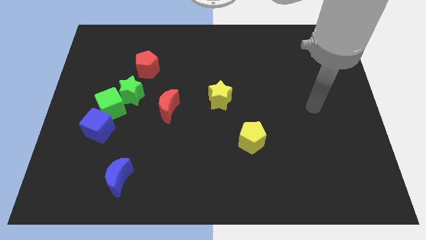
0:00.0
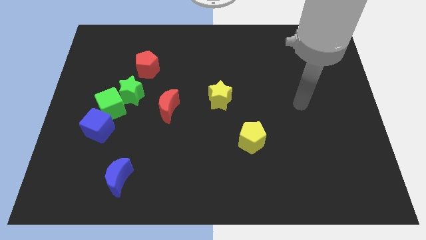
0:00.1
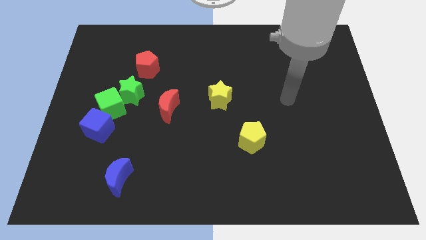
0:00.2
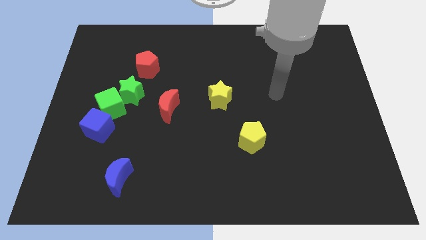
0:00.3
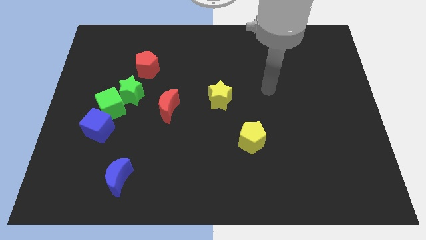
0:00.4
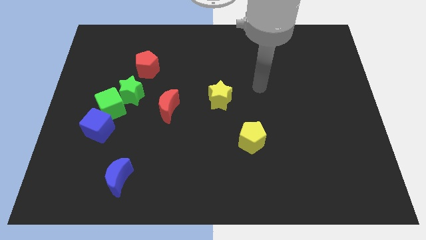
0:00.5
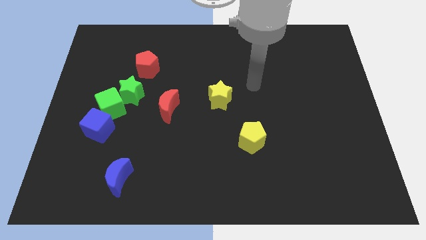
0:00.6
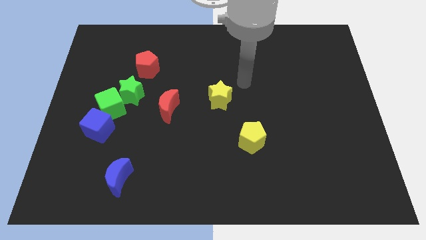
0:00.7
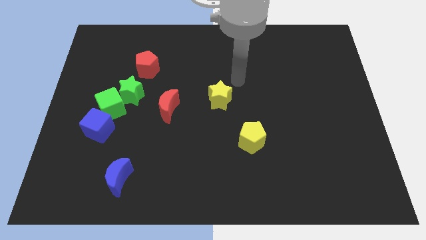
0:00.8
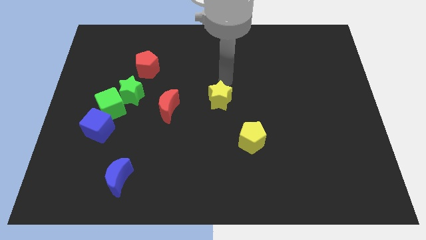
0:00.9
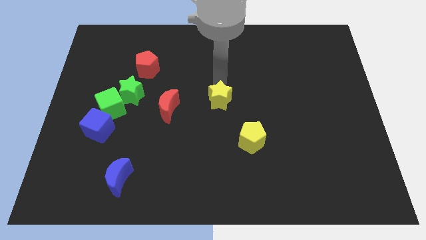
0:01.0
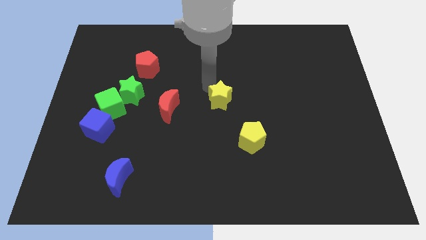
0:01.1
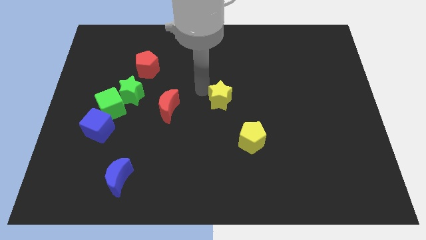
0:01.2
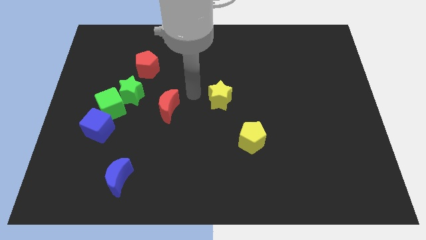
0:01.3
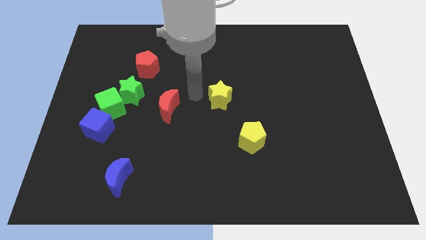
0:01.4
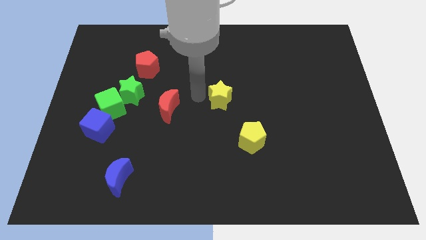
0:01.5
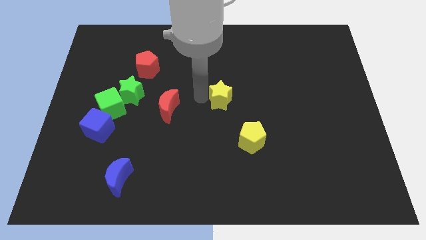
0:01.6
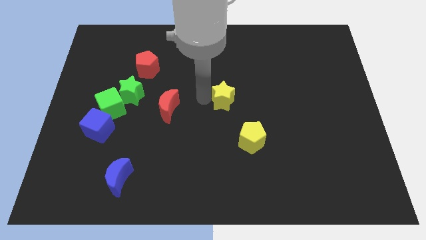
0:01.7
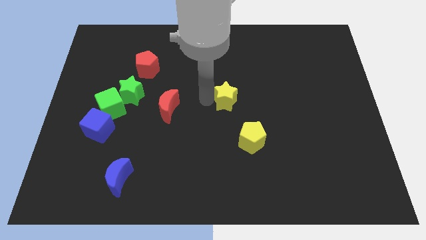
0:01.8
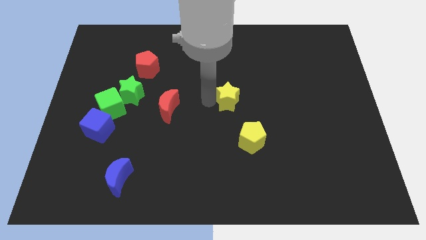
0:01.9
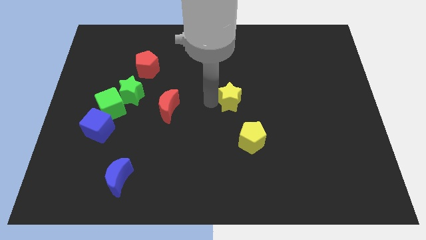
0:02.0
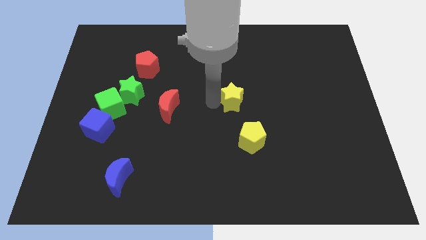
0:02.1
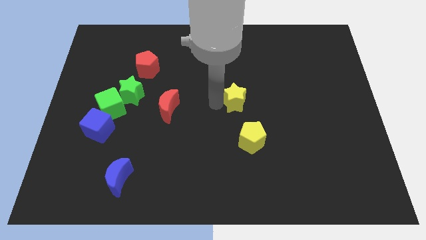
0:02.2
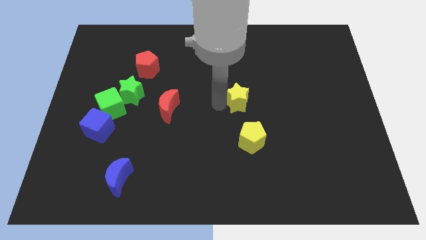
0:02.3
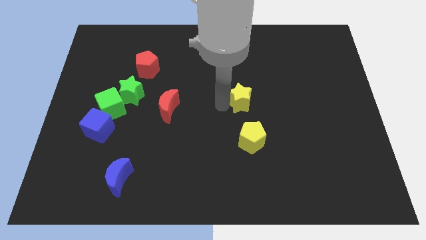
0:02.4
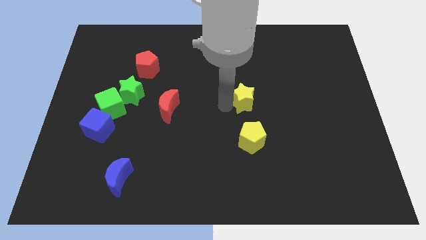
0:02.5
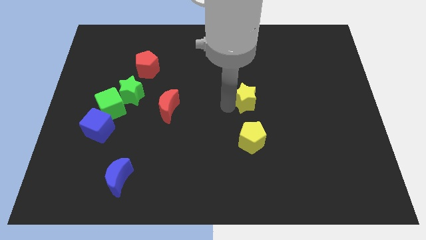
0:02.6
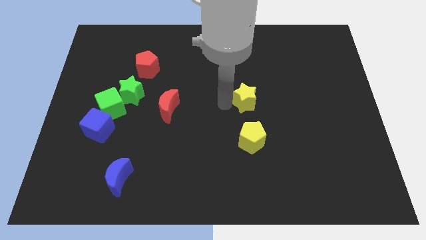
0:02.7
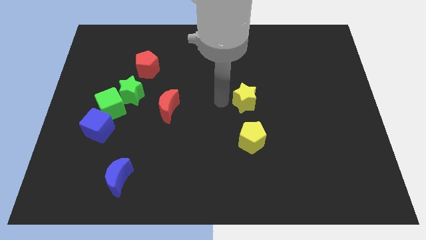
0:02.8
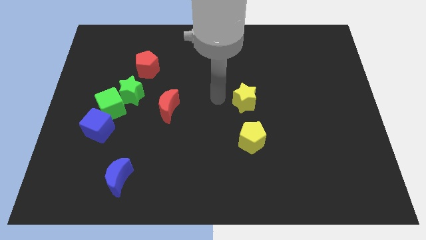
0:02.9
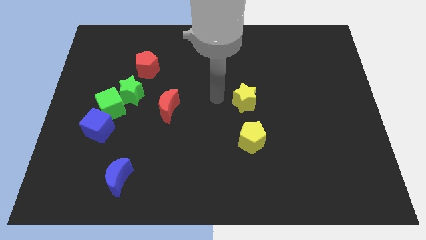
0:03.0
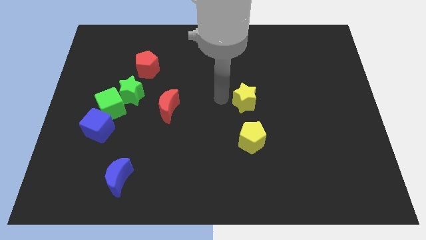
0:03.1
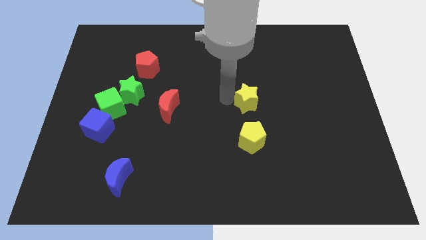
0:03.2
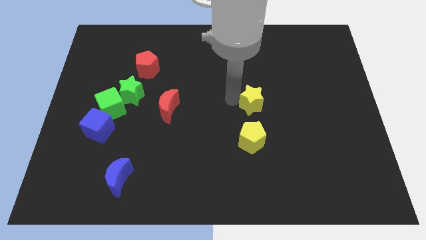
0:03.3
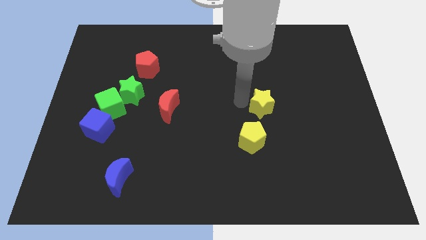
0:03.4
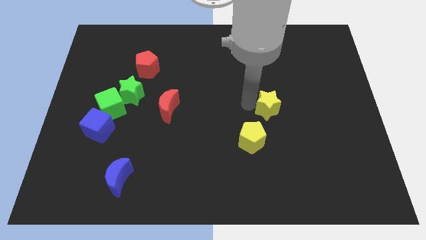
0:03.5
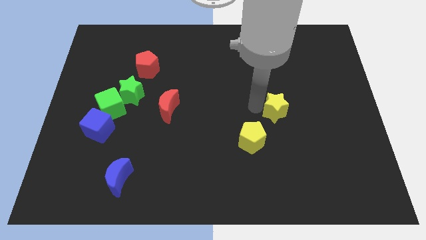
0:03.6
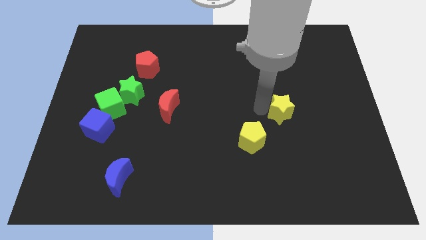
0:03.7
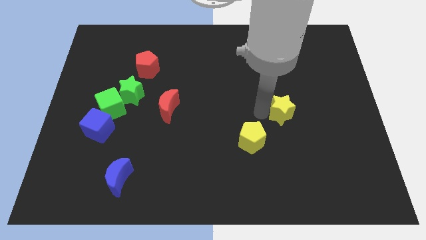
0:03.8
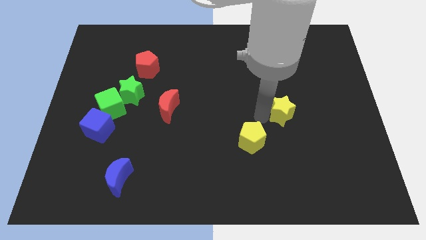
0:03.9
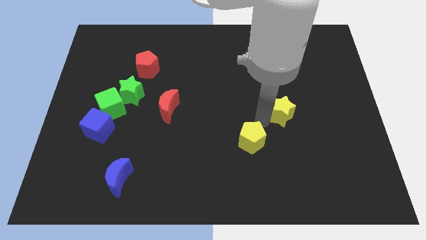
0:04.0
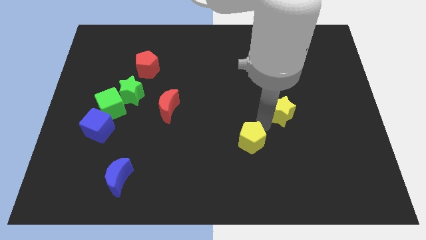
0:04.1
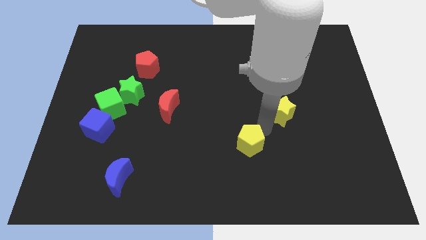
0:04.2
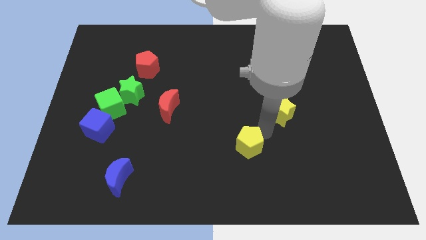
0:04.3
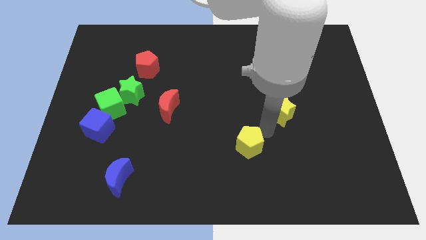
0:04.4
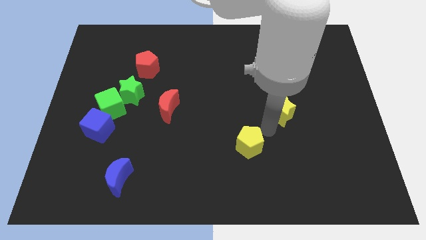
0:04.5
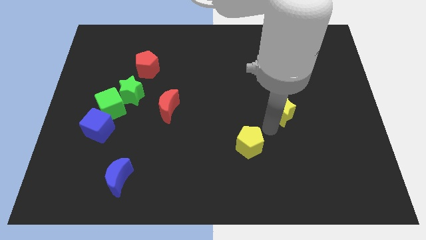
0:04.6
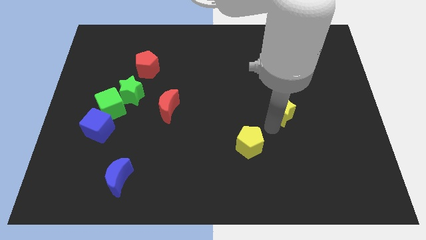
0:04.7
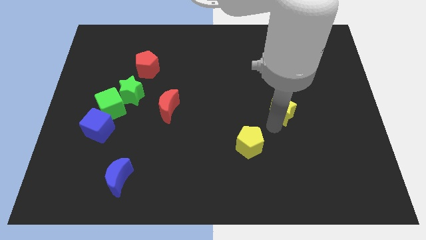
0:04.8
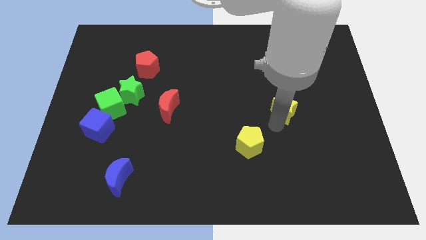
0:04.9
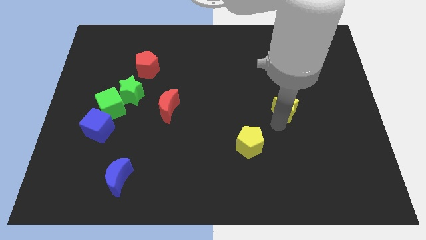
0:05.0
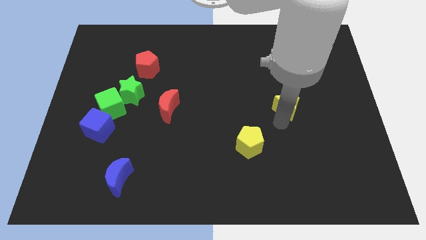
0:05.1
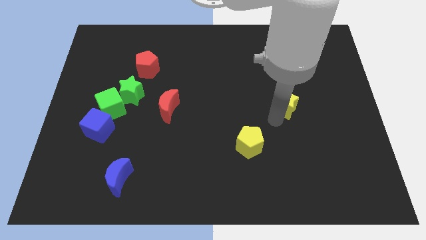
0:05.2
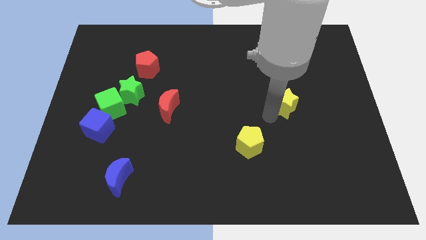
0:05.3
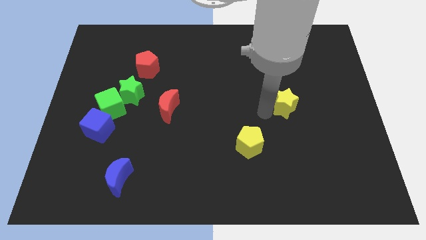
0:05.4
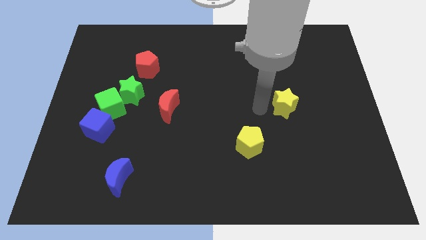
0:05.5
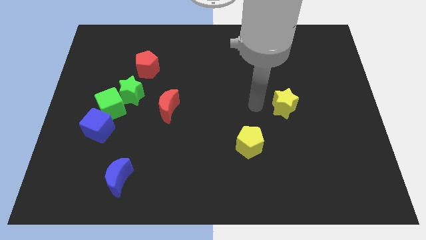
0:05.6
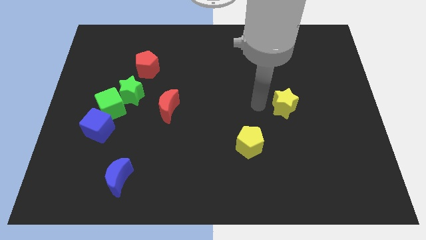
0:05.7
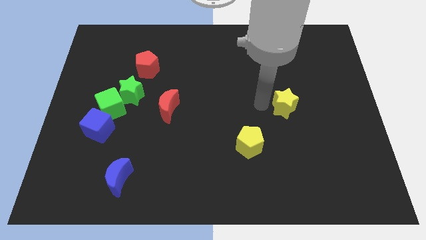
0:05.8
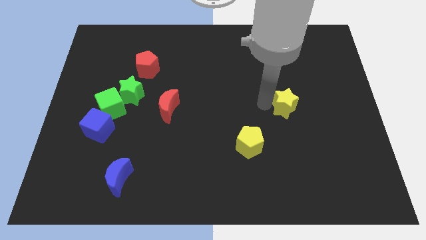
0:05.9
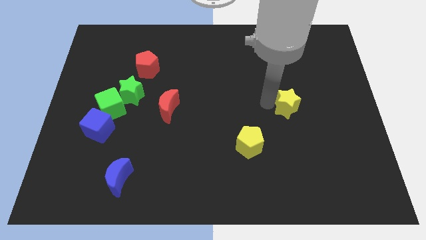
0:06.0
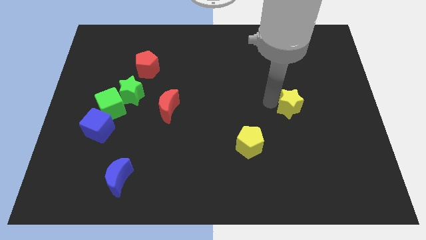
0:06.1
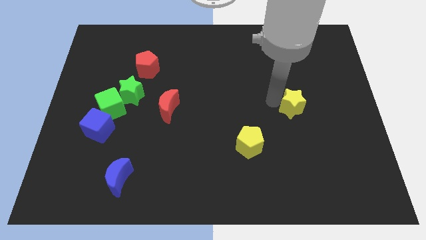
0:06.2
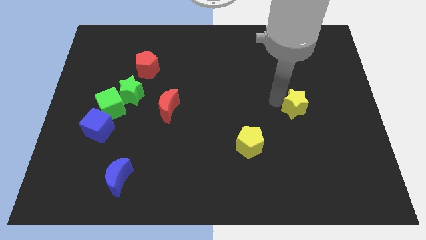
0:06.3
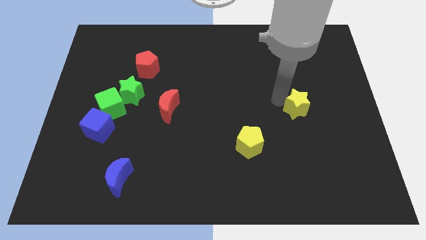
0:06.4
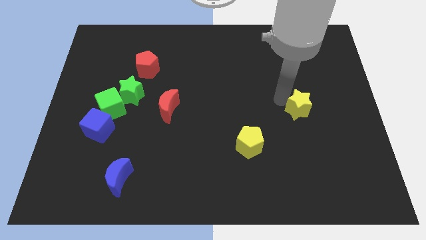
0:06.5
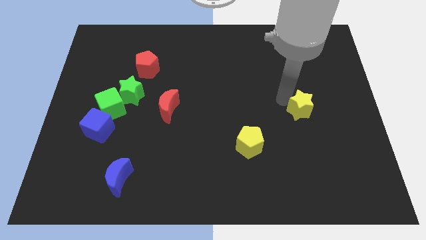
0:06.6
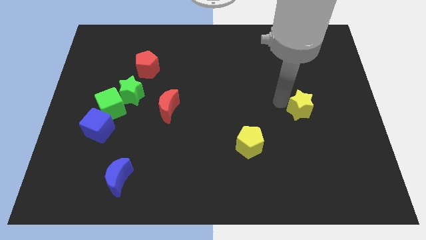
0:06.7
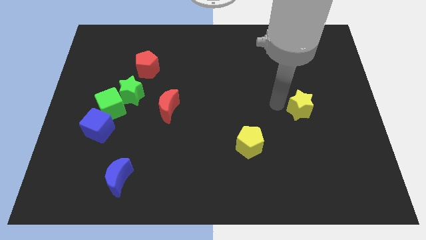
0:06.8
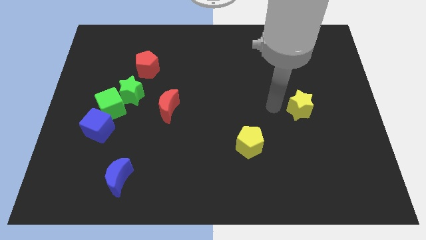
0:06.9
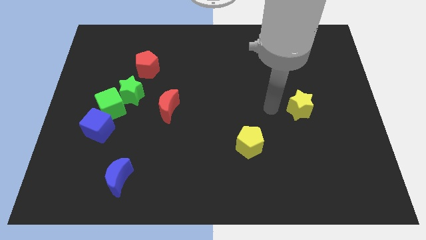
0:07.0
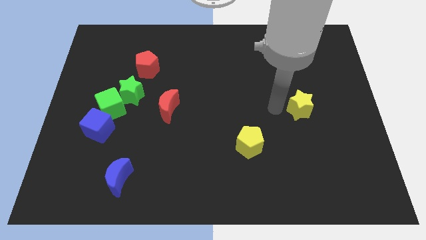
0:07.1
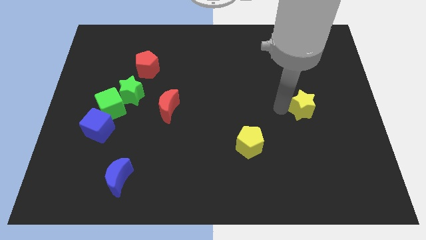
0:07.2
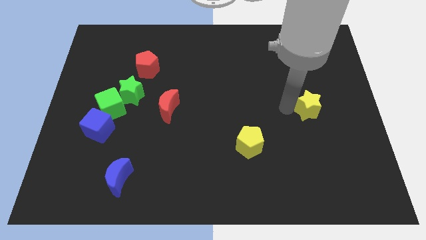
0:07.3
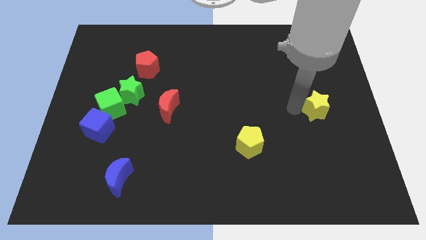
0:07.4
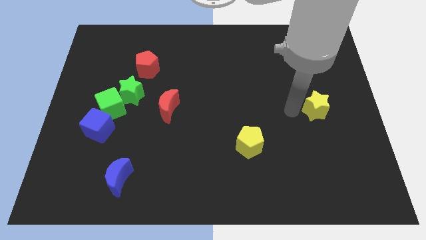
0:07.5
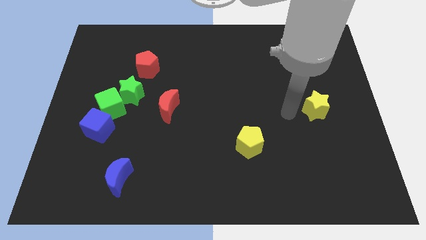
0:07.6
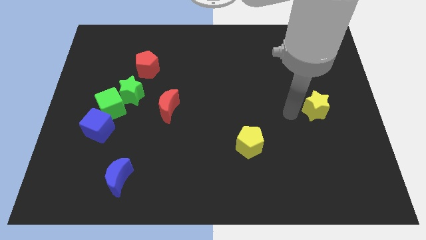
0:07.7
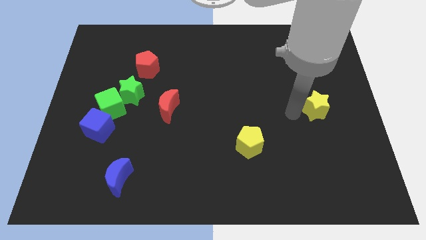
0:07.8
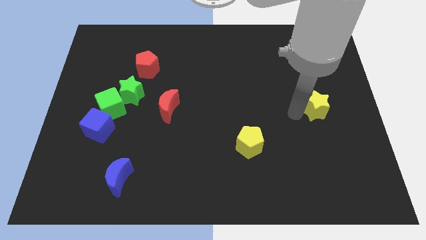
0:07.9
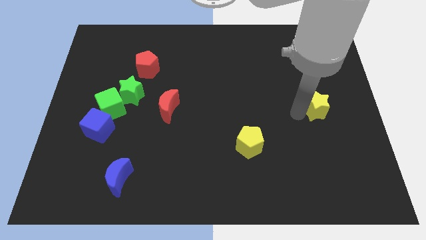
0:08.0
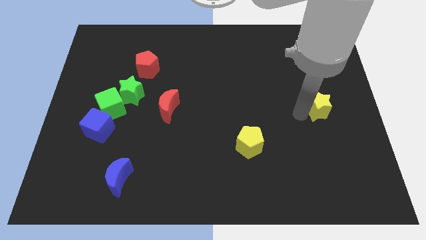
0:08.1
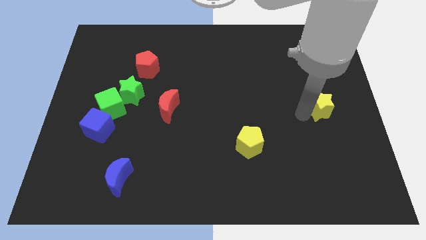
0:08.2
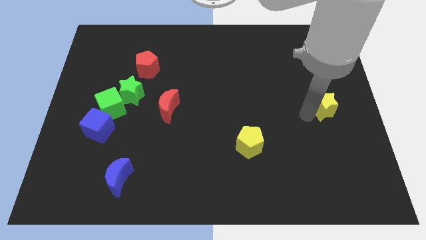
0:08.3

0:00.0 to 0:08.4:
move the yellow star to the right side of the board
